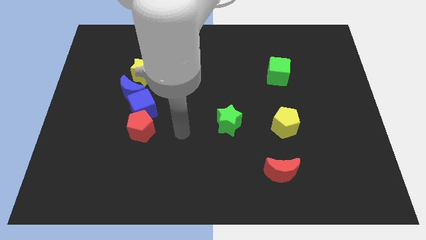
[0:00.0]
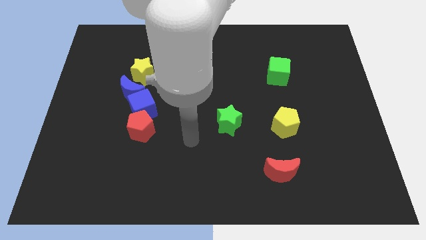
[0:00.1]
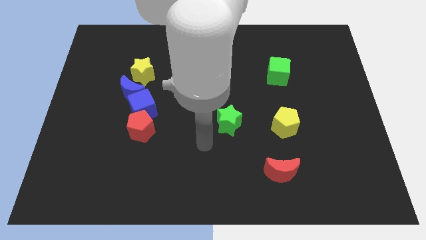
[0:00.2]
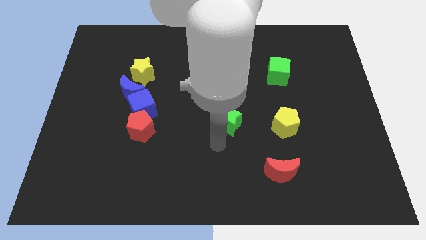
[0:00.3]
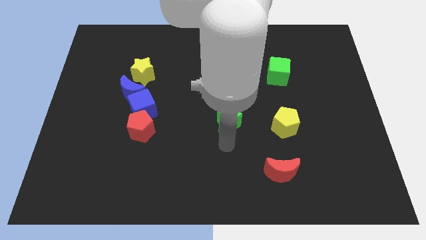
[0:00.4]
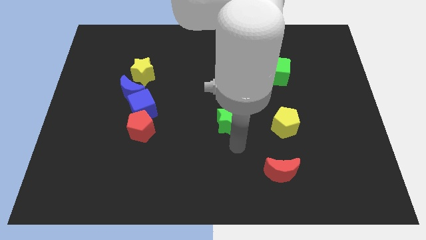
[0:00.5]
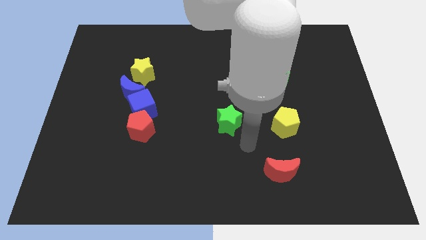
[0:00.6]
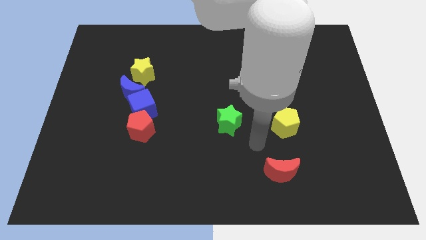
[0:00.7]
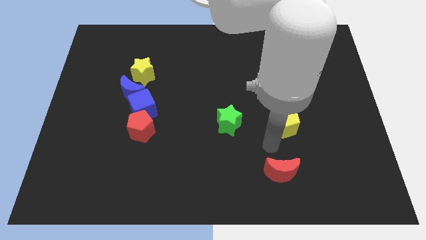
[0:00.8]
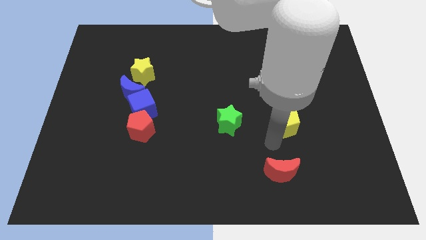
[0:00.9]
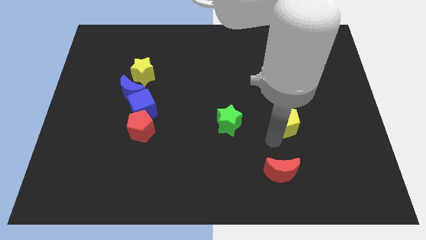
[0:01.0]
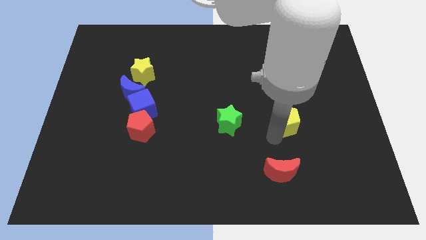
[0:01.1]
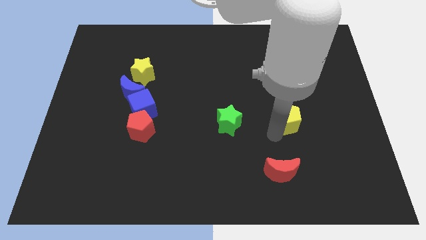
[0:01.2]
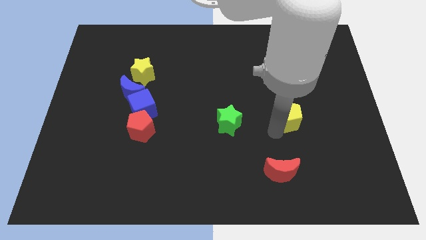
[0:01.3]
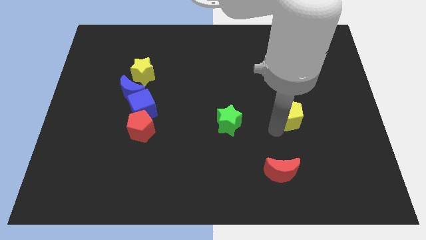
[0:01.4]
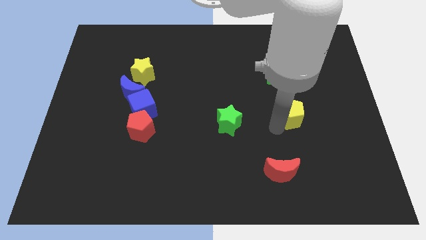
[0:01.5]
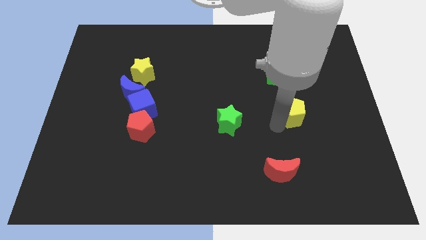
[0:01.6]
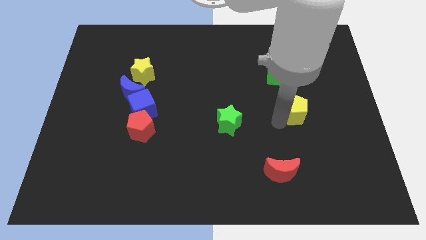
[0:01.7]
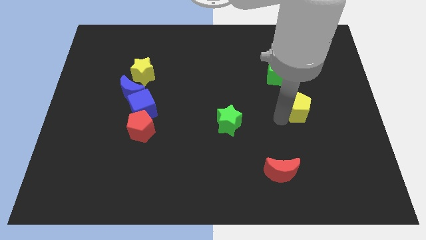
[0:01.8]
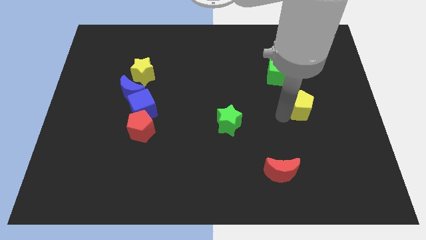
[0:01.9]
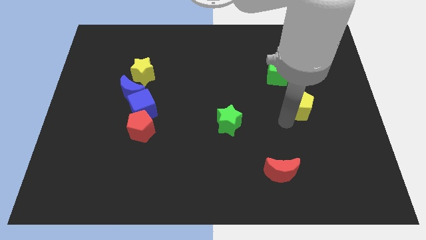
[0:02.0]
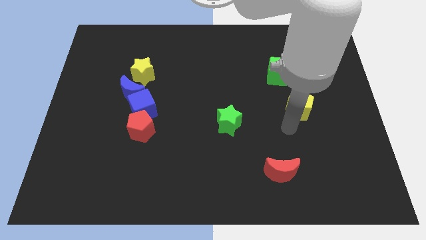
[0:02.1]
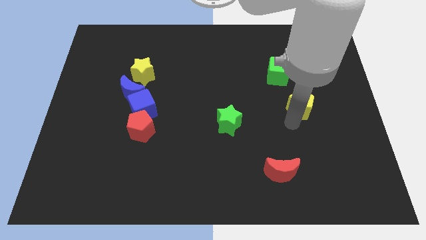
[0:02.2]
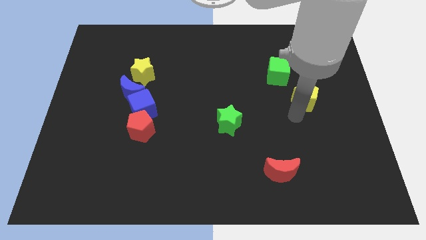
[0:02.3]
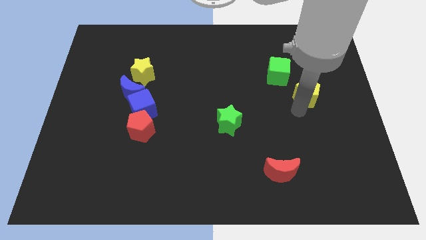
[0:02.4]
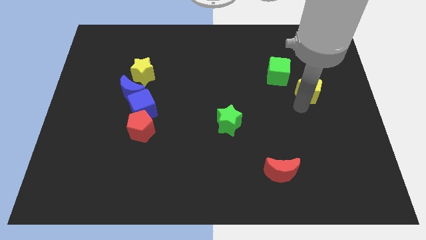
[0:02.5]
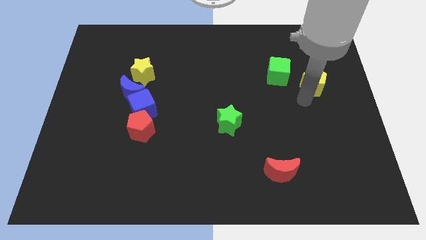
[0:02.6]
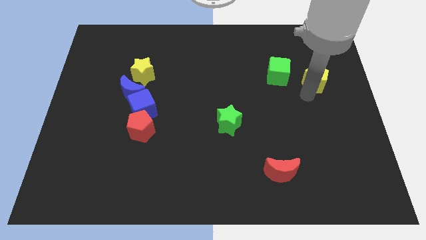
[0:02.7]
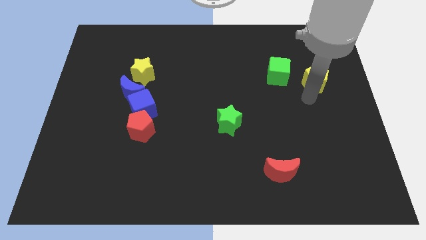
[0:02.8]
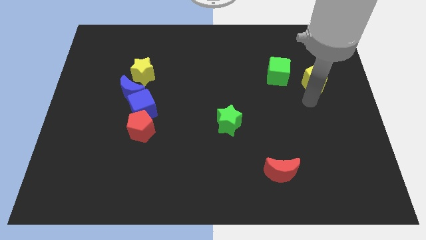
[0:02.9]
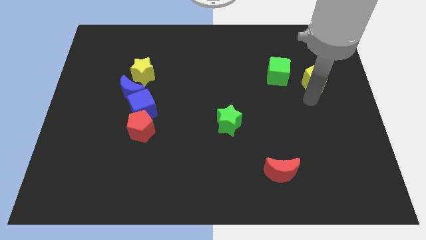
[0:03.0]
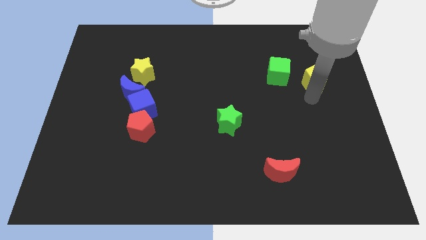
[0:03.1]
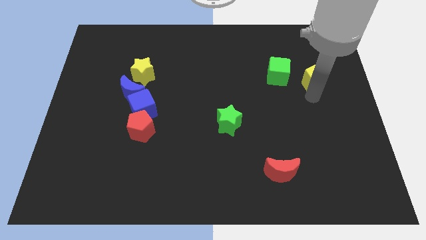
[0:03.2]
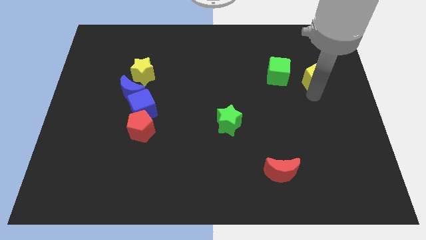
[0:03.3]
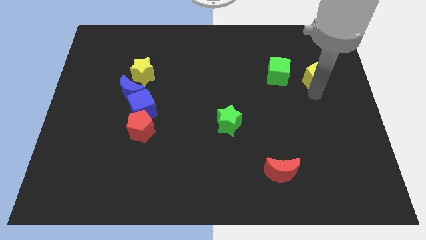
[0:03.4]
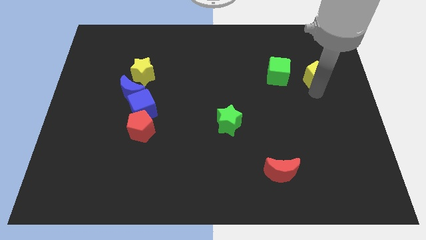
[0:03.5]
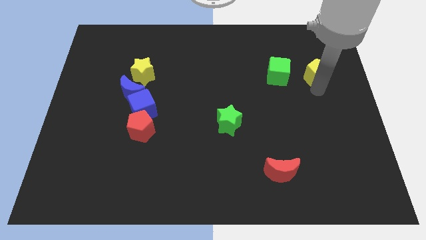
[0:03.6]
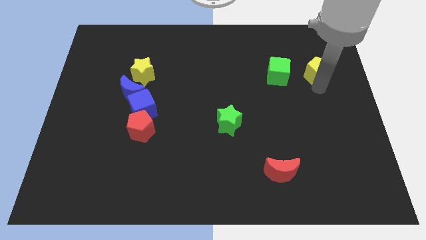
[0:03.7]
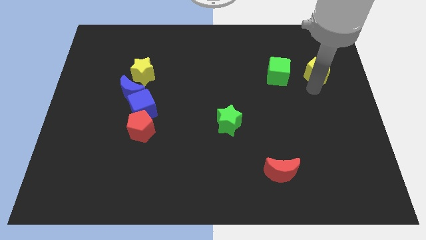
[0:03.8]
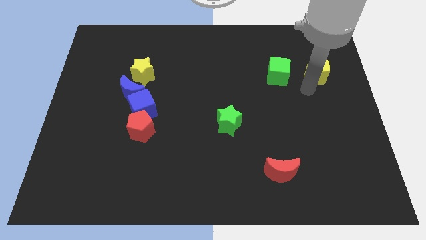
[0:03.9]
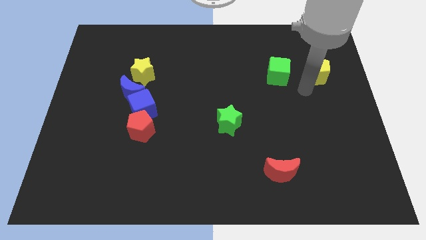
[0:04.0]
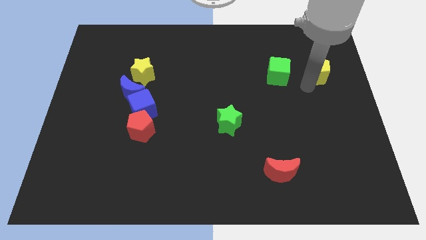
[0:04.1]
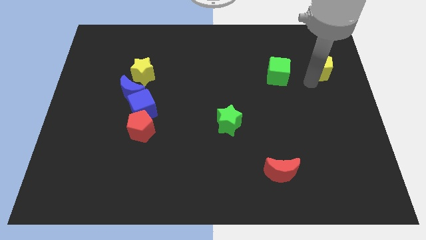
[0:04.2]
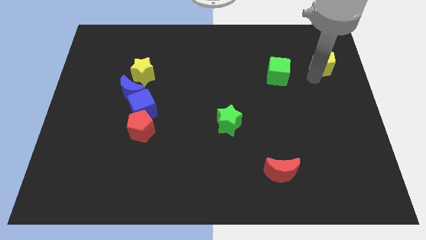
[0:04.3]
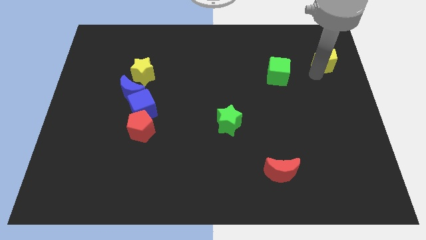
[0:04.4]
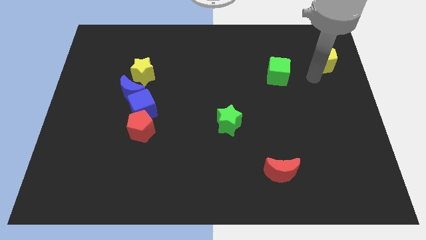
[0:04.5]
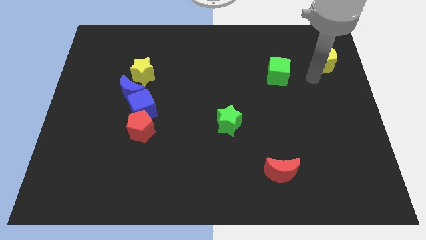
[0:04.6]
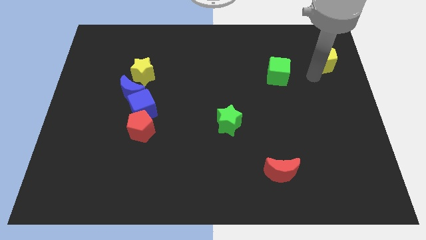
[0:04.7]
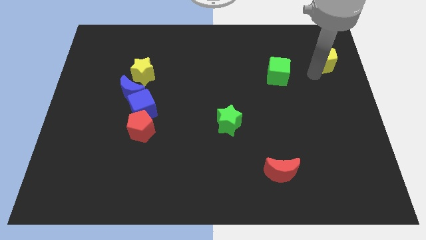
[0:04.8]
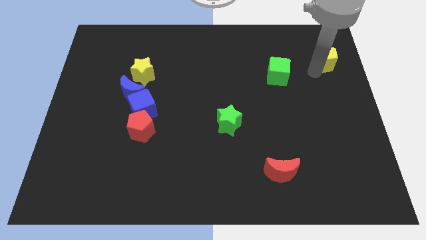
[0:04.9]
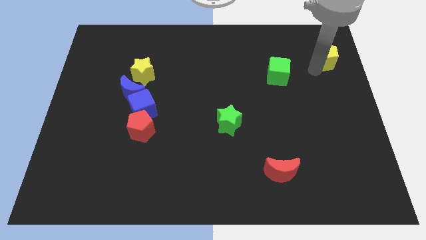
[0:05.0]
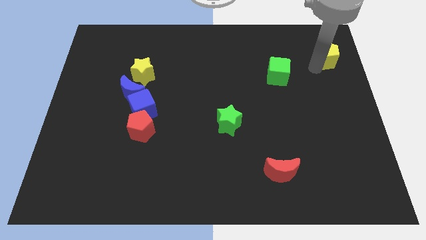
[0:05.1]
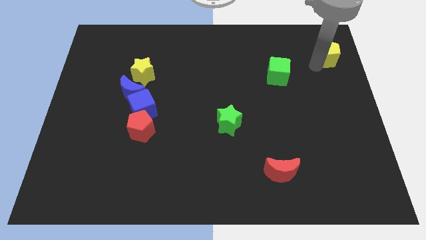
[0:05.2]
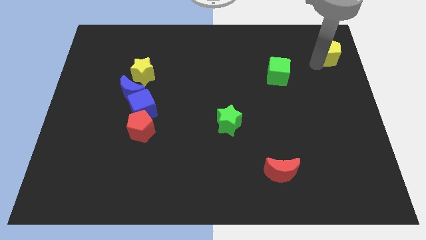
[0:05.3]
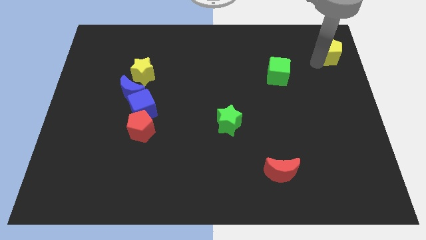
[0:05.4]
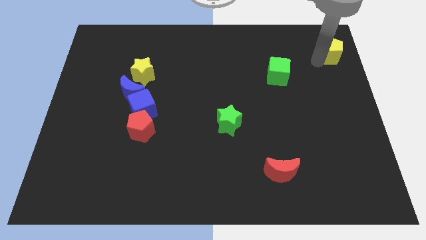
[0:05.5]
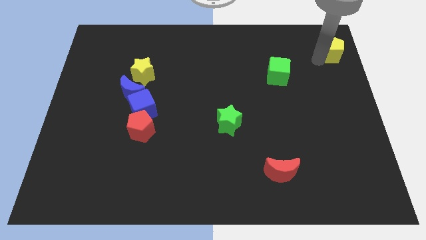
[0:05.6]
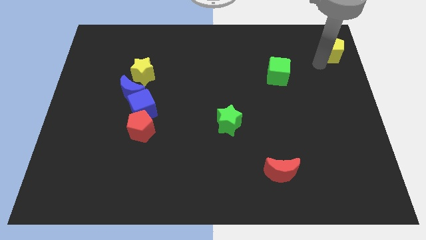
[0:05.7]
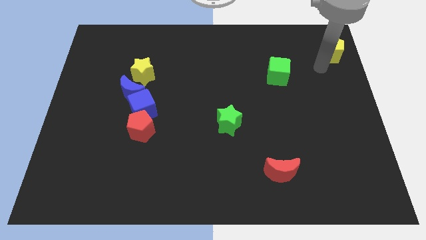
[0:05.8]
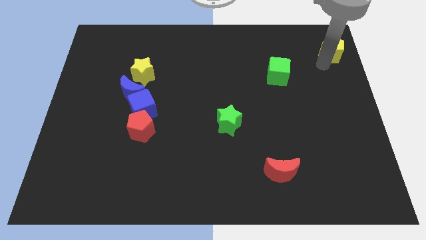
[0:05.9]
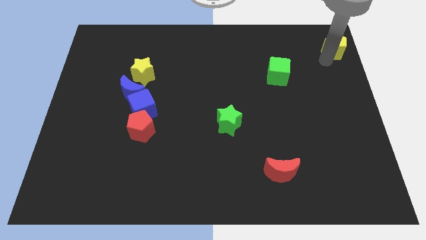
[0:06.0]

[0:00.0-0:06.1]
move the yellow pentagon to the top right of the board
